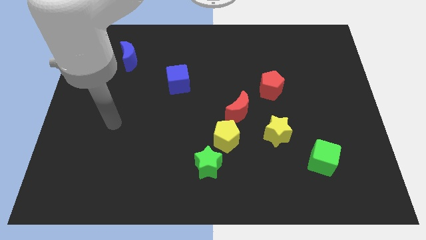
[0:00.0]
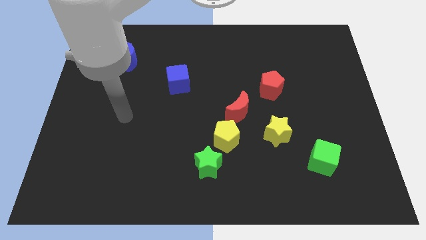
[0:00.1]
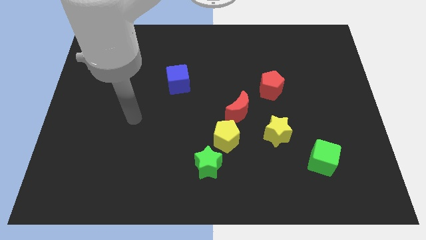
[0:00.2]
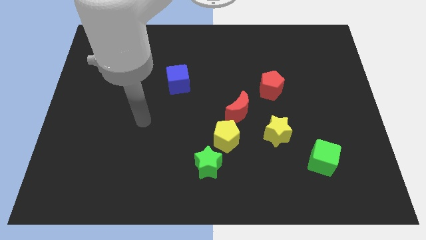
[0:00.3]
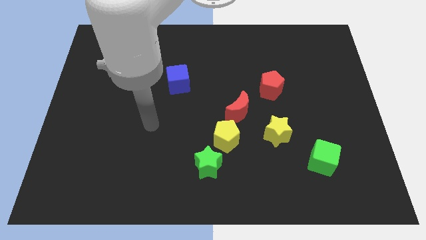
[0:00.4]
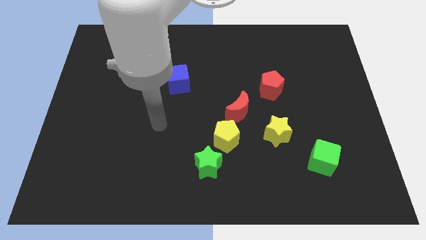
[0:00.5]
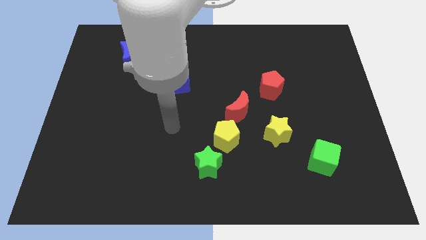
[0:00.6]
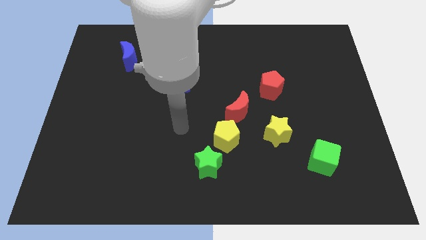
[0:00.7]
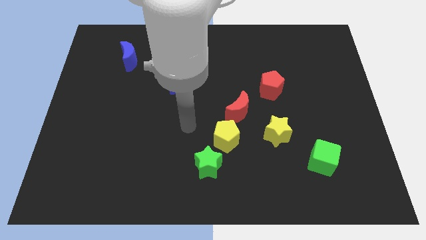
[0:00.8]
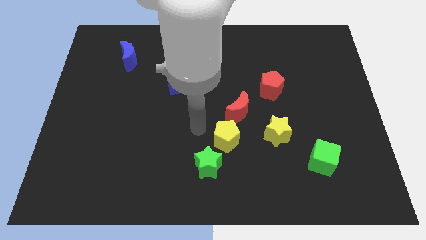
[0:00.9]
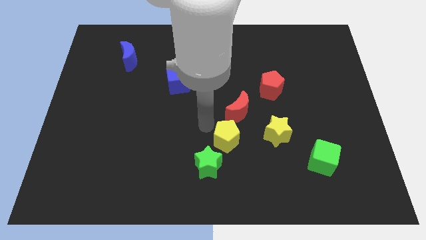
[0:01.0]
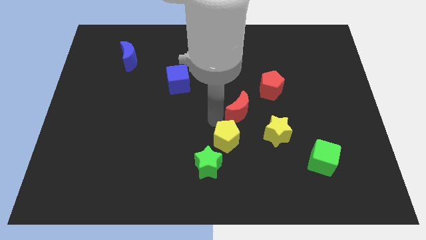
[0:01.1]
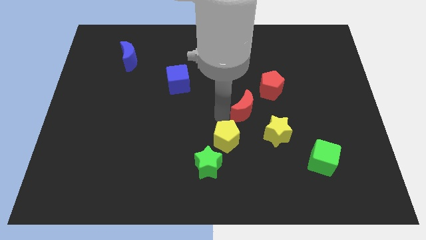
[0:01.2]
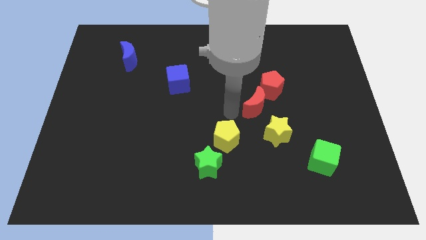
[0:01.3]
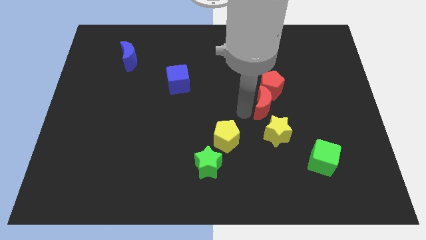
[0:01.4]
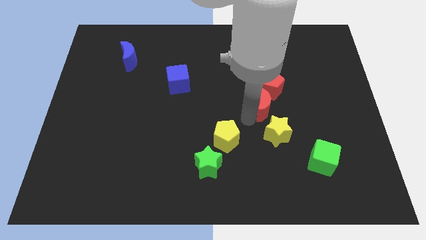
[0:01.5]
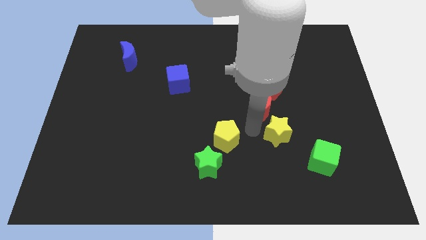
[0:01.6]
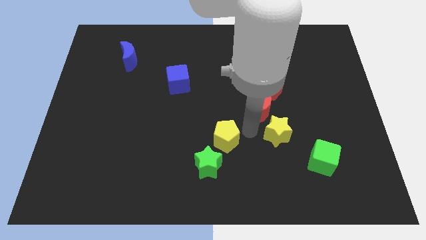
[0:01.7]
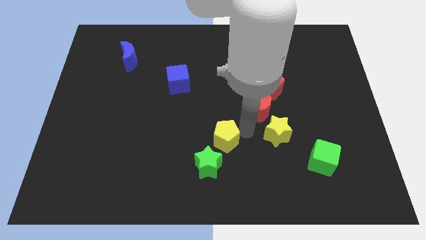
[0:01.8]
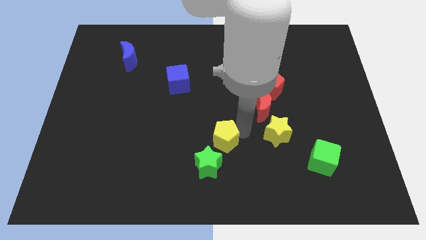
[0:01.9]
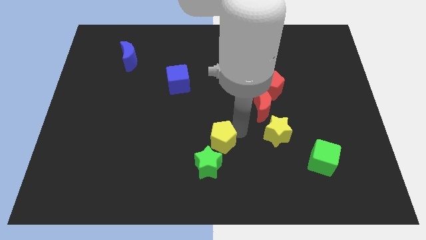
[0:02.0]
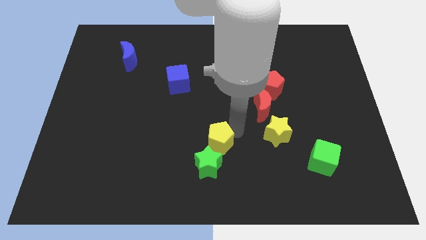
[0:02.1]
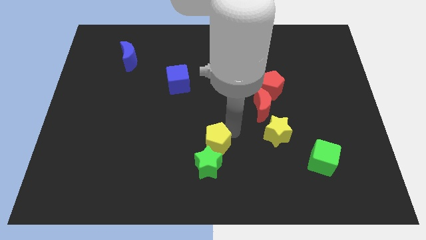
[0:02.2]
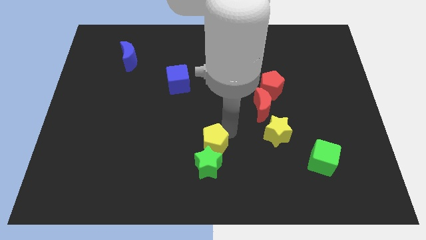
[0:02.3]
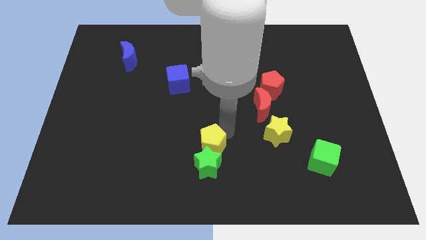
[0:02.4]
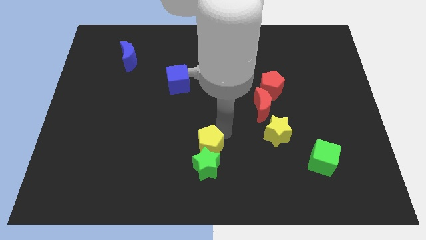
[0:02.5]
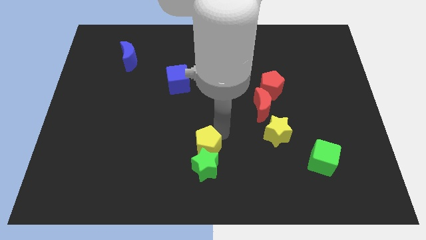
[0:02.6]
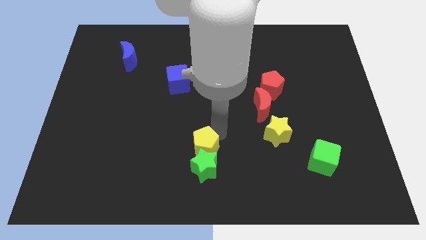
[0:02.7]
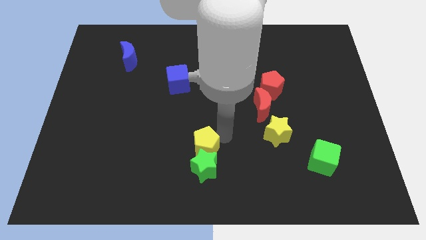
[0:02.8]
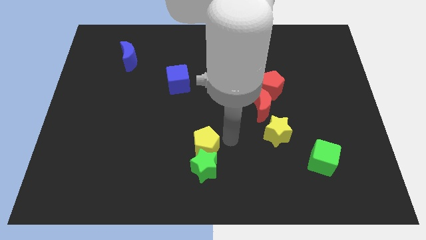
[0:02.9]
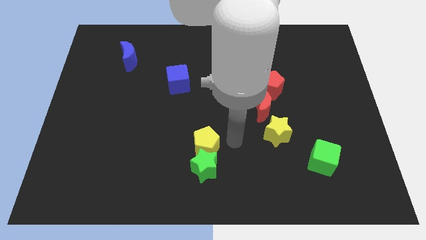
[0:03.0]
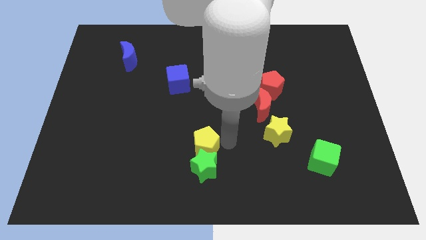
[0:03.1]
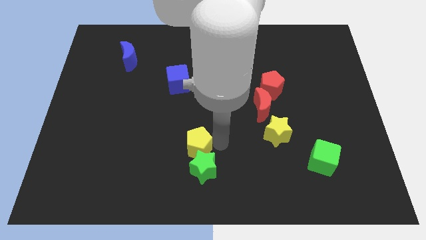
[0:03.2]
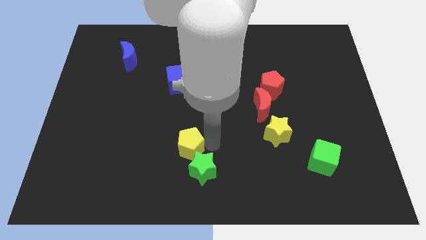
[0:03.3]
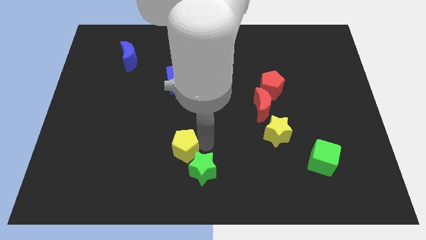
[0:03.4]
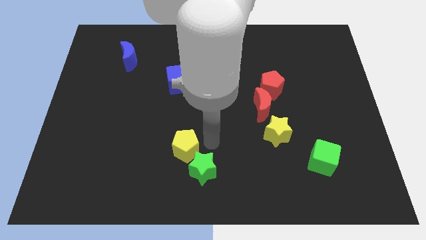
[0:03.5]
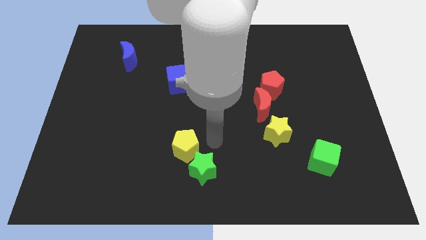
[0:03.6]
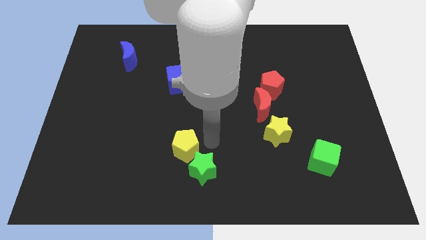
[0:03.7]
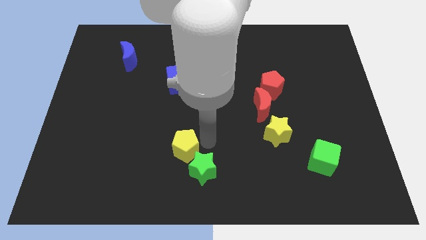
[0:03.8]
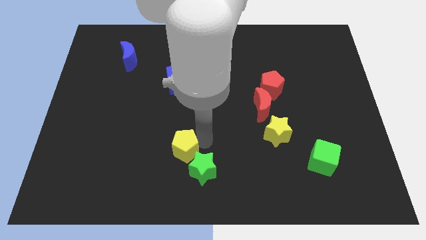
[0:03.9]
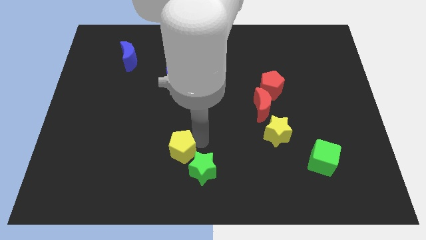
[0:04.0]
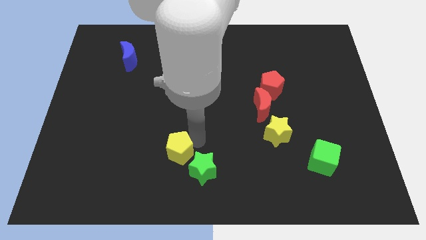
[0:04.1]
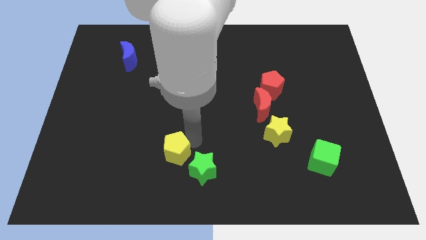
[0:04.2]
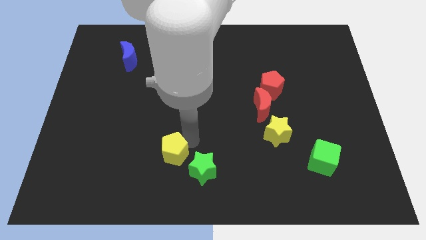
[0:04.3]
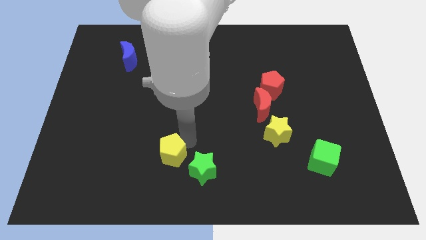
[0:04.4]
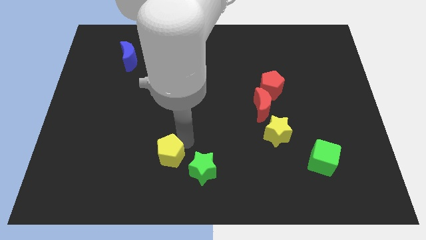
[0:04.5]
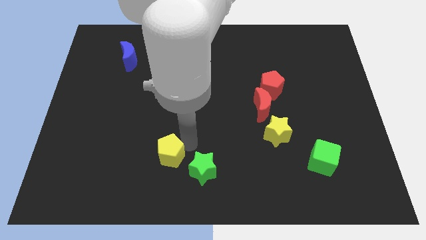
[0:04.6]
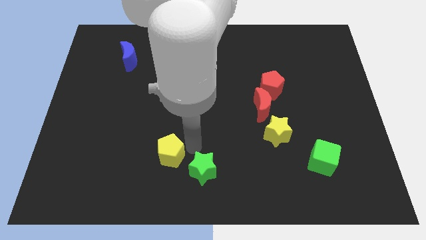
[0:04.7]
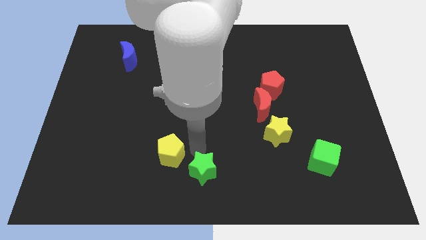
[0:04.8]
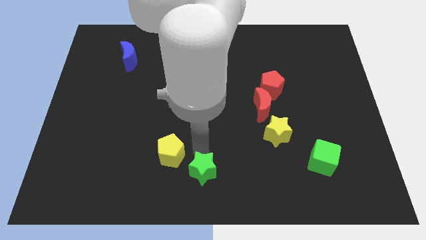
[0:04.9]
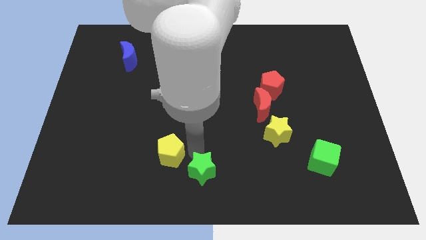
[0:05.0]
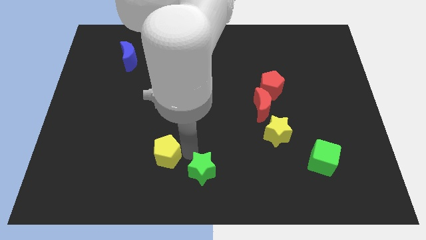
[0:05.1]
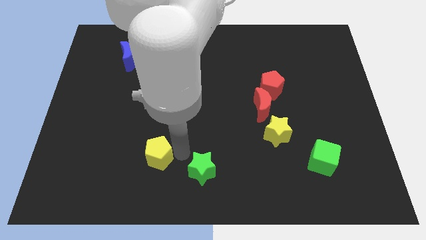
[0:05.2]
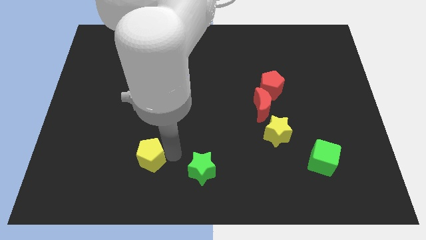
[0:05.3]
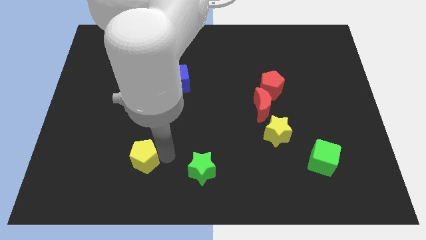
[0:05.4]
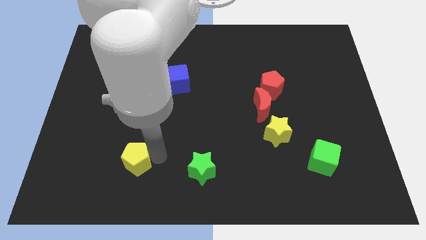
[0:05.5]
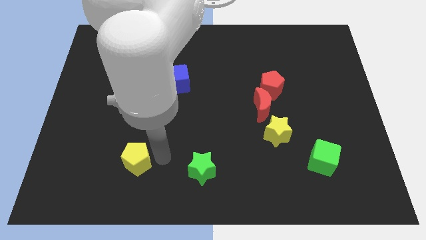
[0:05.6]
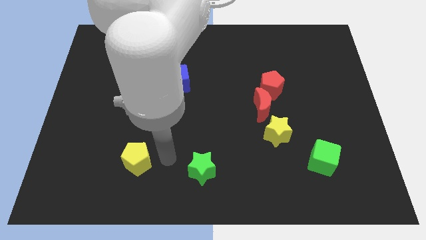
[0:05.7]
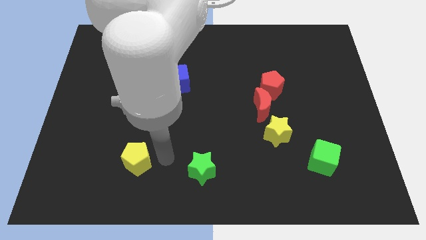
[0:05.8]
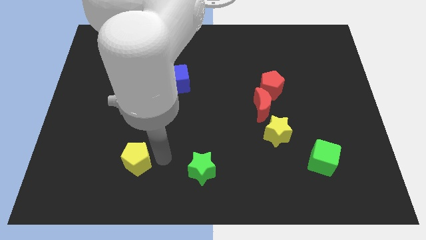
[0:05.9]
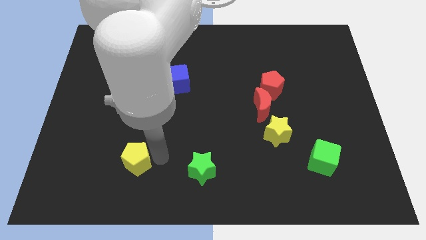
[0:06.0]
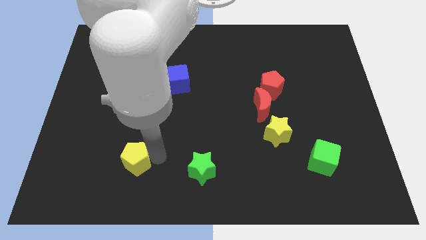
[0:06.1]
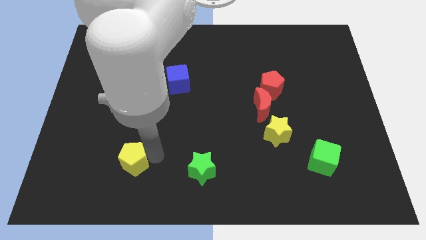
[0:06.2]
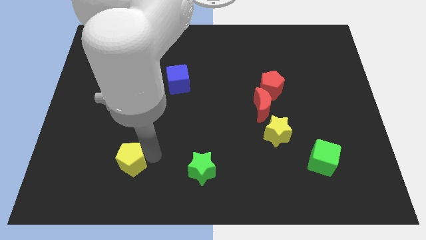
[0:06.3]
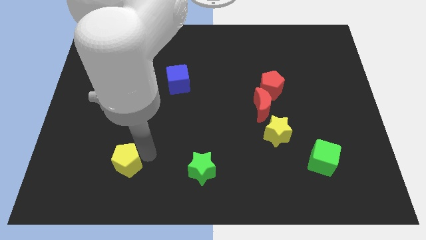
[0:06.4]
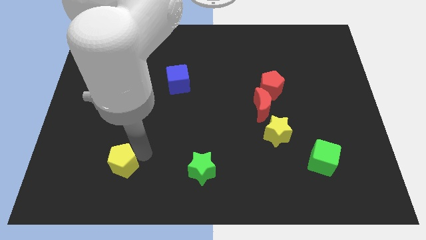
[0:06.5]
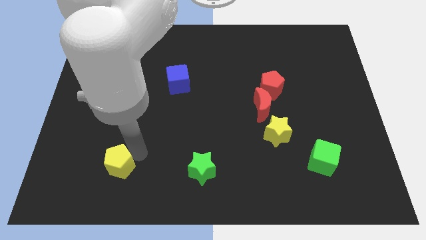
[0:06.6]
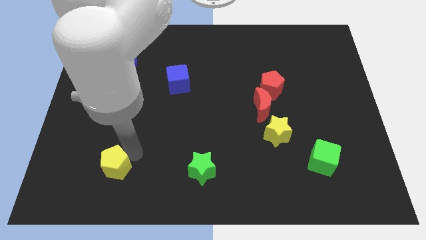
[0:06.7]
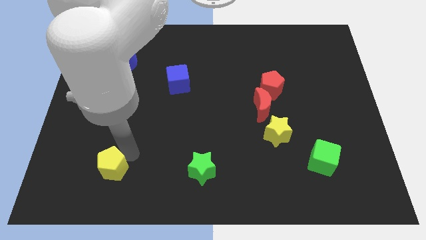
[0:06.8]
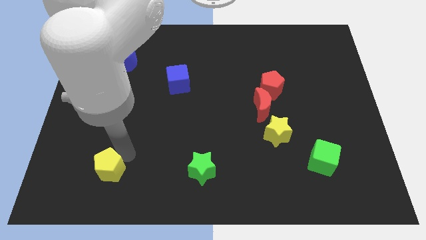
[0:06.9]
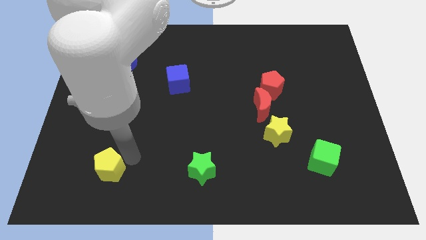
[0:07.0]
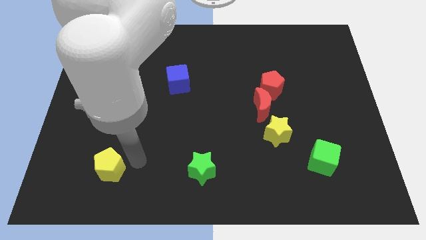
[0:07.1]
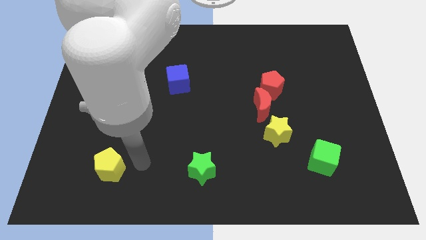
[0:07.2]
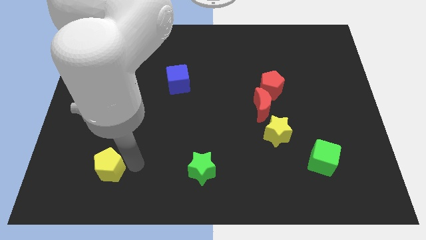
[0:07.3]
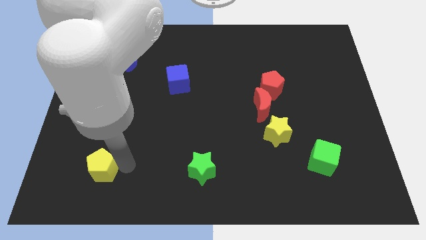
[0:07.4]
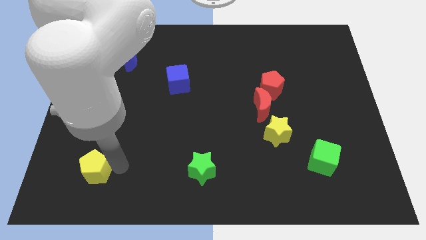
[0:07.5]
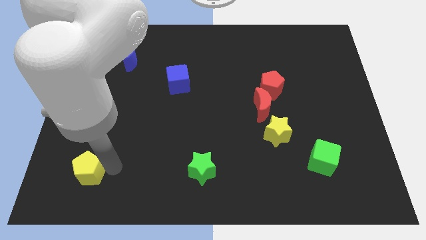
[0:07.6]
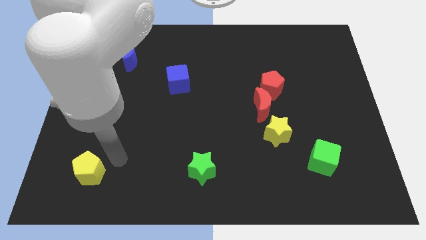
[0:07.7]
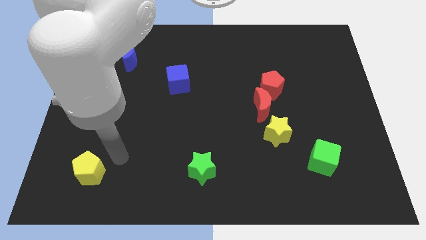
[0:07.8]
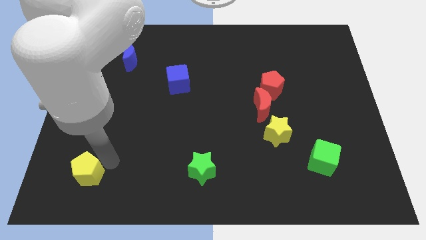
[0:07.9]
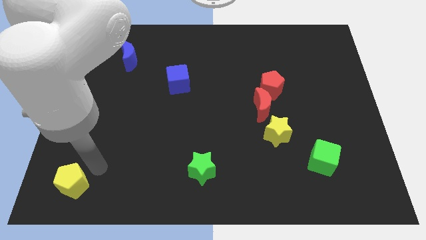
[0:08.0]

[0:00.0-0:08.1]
move the yellow pentagon to the lower left corner
